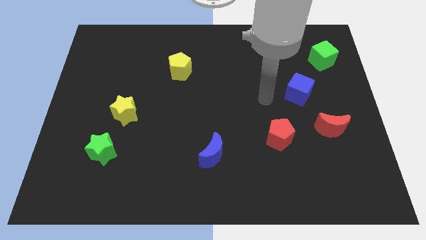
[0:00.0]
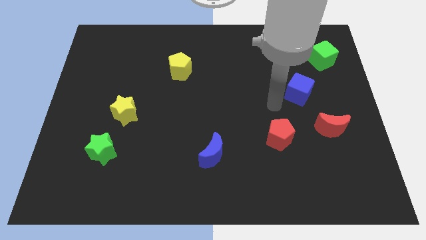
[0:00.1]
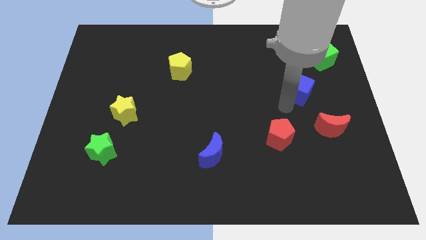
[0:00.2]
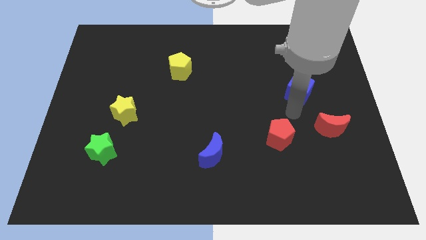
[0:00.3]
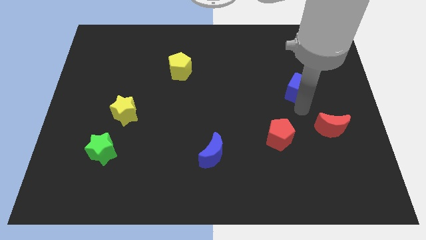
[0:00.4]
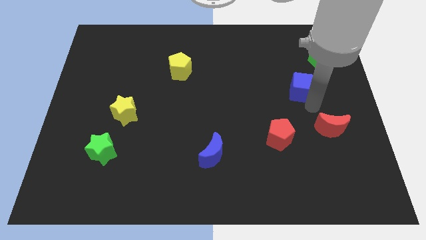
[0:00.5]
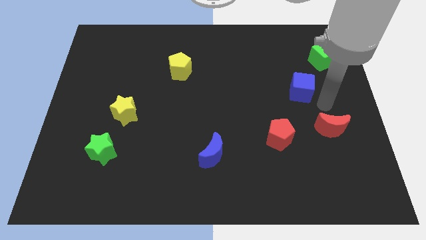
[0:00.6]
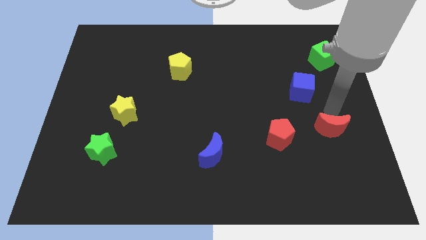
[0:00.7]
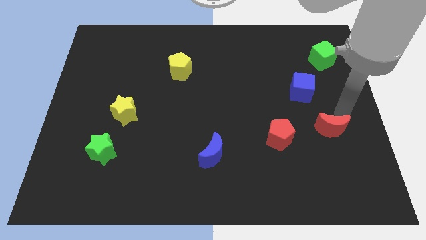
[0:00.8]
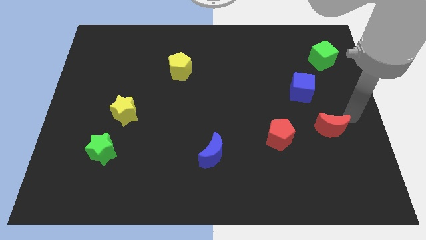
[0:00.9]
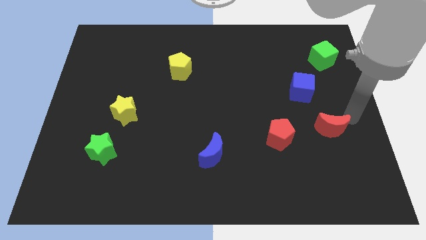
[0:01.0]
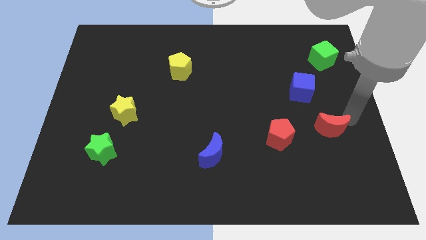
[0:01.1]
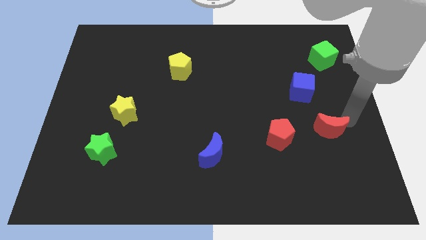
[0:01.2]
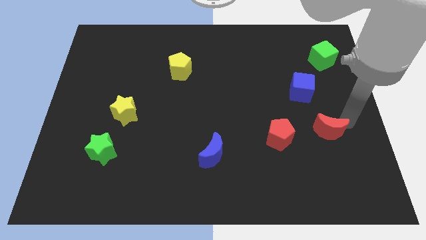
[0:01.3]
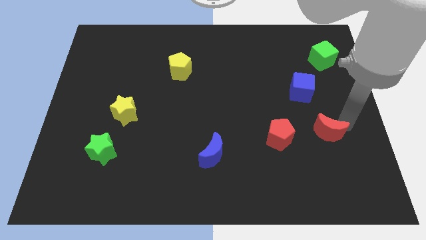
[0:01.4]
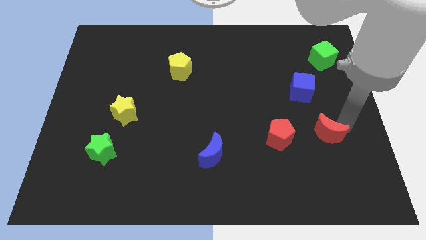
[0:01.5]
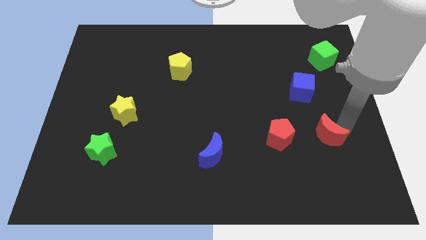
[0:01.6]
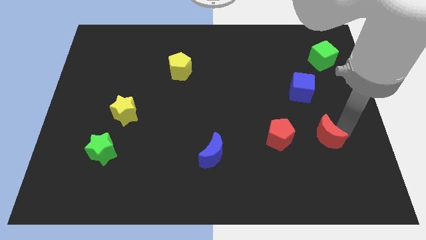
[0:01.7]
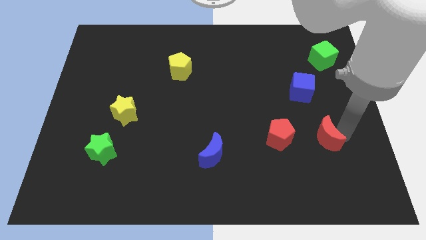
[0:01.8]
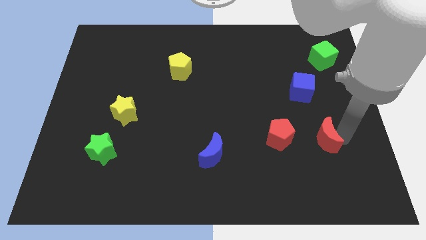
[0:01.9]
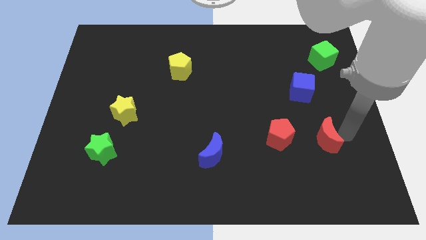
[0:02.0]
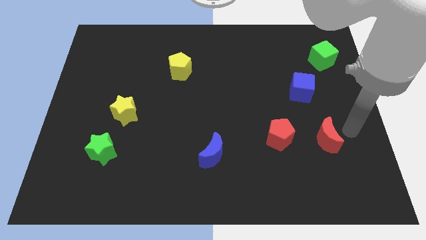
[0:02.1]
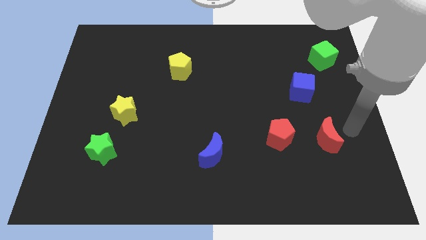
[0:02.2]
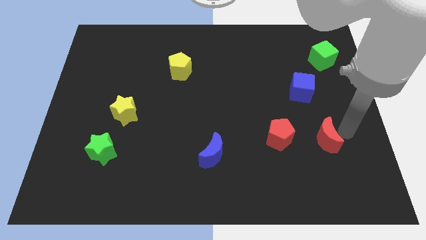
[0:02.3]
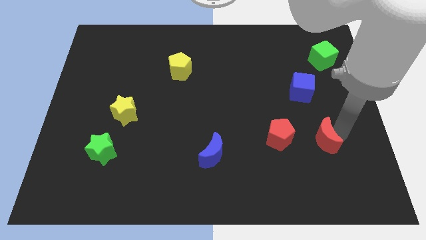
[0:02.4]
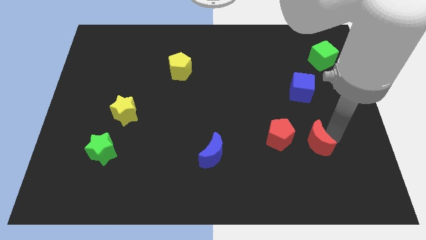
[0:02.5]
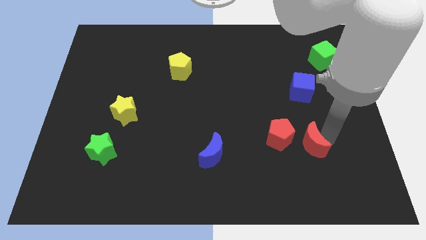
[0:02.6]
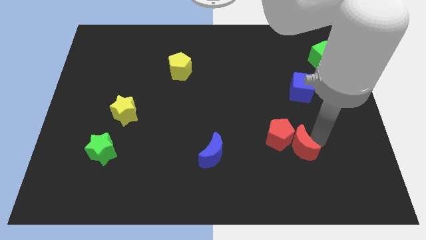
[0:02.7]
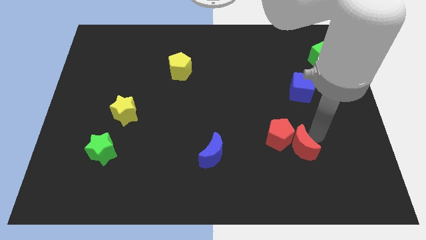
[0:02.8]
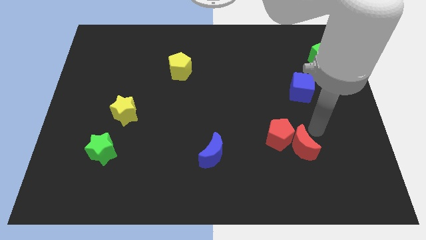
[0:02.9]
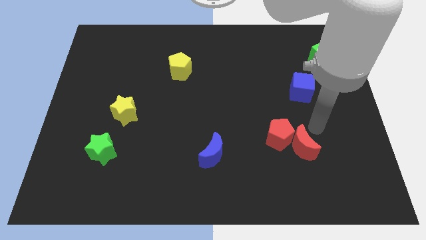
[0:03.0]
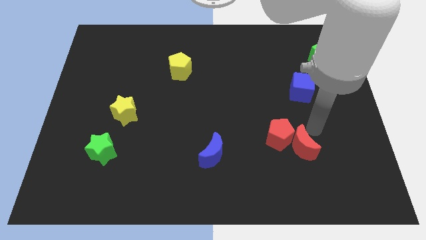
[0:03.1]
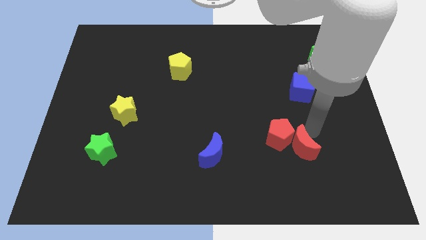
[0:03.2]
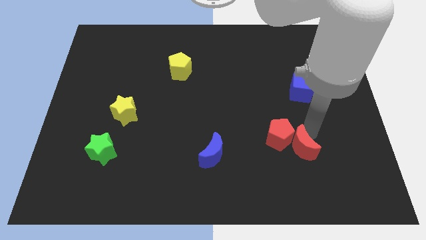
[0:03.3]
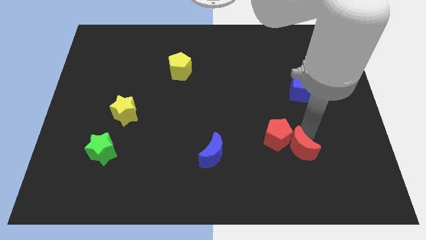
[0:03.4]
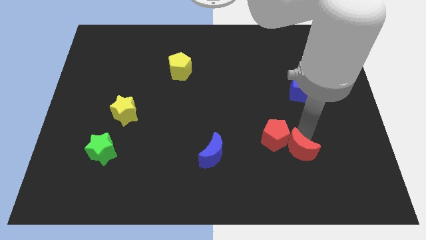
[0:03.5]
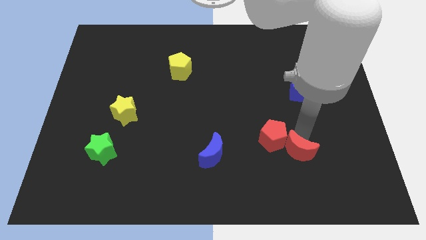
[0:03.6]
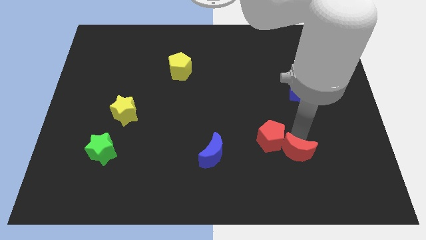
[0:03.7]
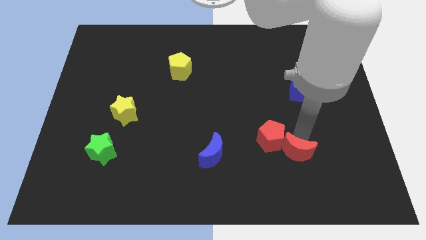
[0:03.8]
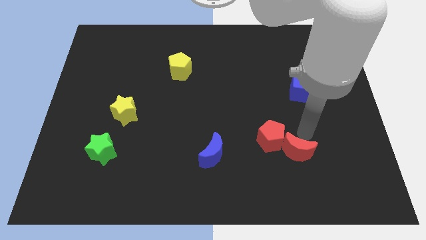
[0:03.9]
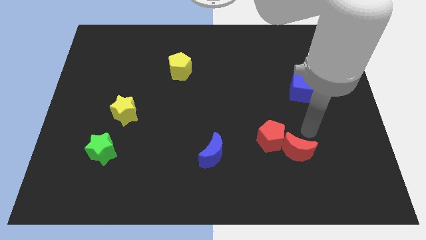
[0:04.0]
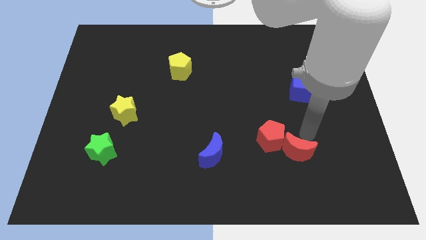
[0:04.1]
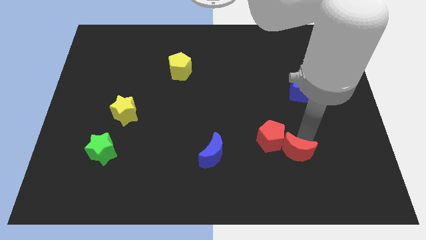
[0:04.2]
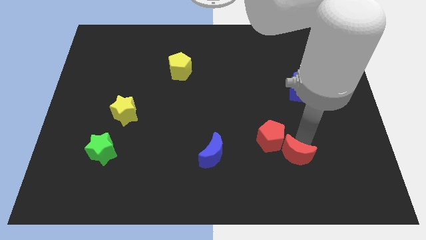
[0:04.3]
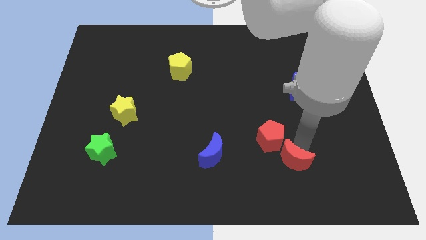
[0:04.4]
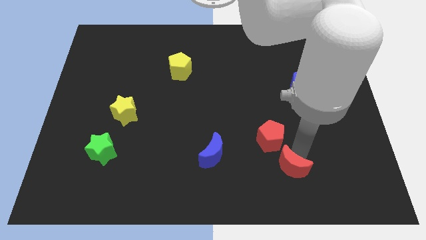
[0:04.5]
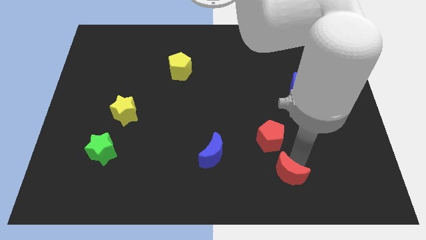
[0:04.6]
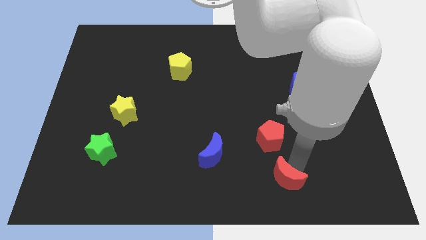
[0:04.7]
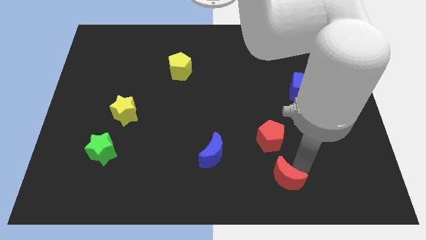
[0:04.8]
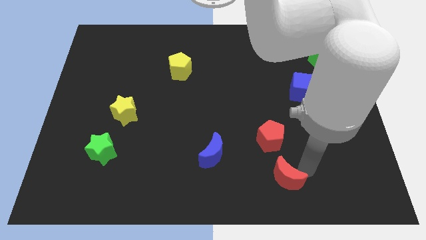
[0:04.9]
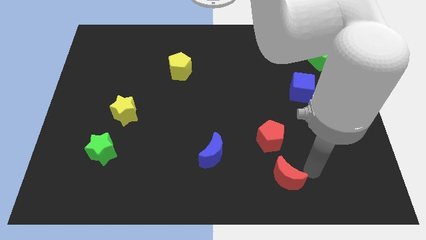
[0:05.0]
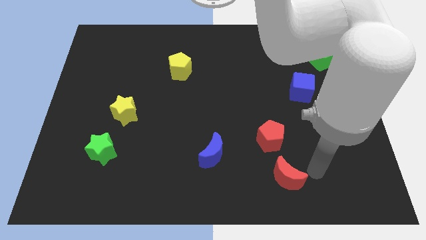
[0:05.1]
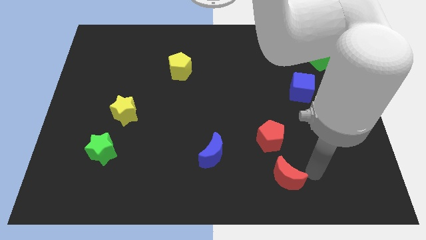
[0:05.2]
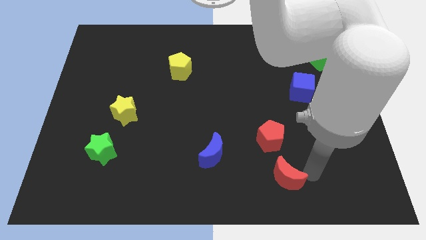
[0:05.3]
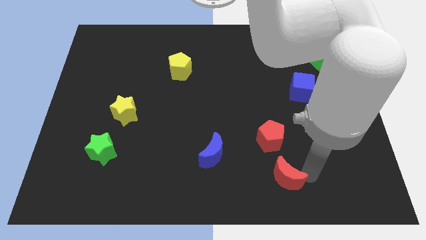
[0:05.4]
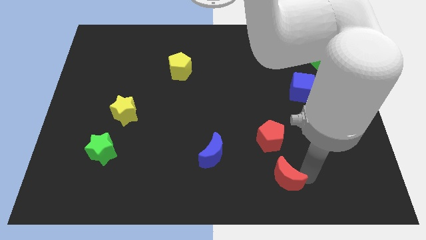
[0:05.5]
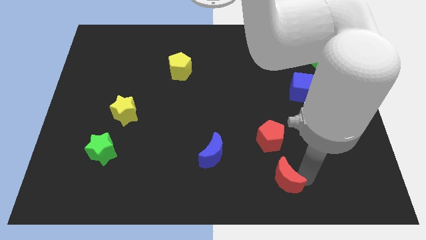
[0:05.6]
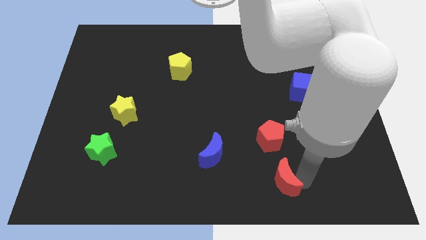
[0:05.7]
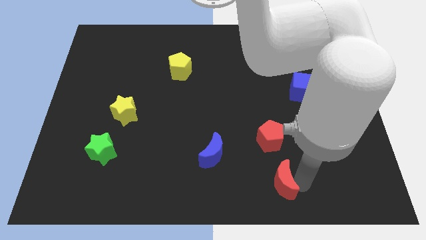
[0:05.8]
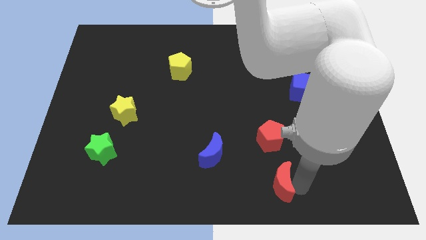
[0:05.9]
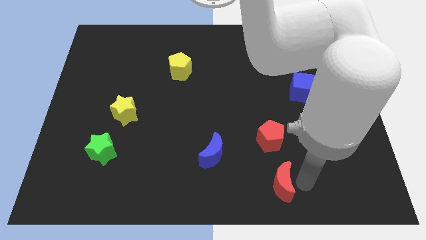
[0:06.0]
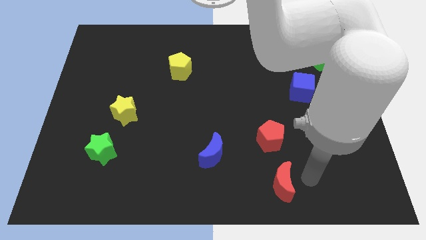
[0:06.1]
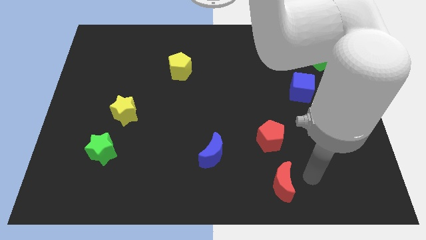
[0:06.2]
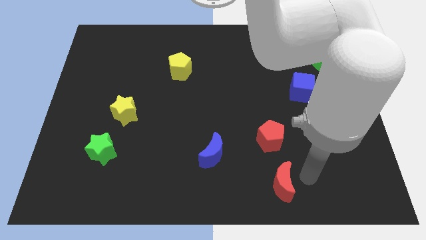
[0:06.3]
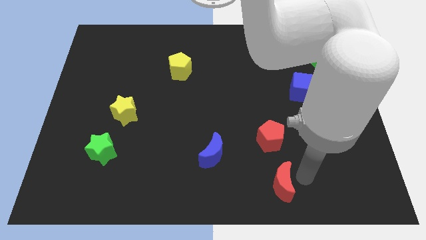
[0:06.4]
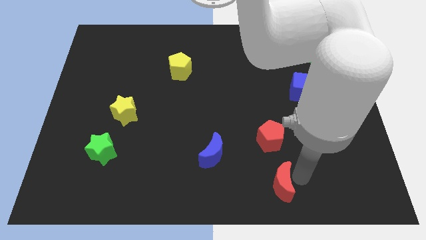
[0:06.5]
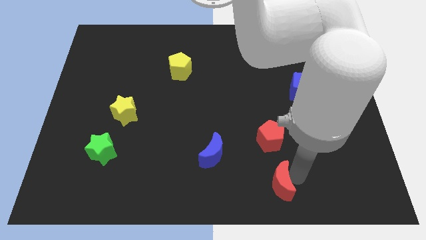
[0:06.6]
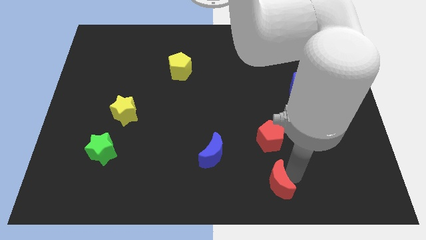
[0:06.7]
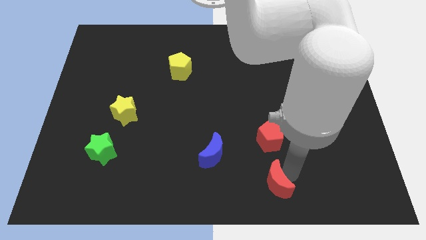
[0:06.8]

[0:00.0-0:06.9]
push the red moon to the bottom side
